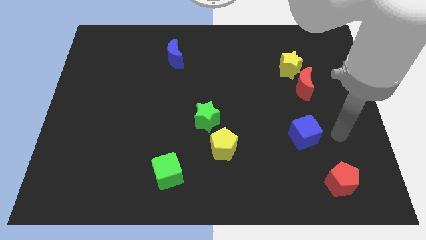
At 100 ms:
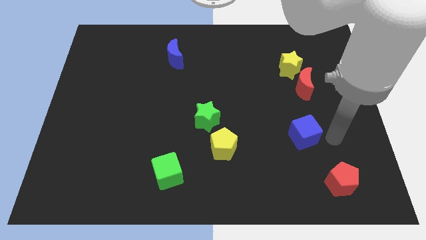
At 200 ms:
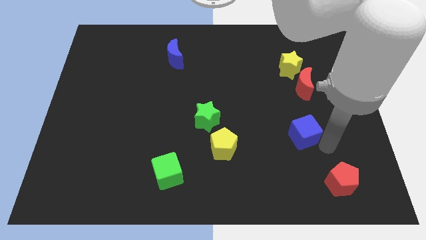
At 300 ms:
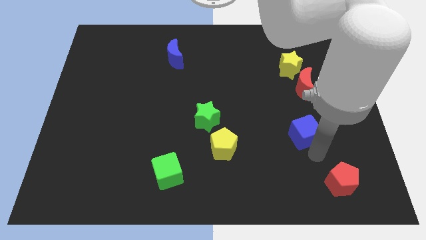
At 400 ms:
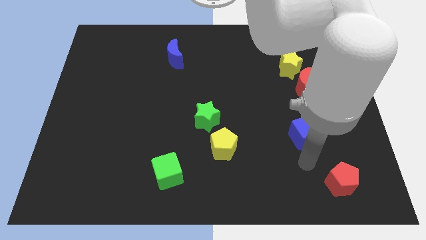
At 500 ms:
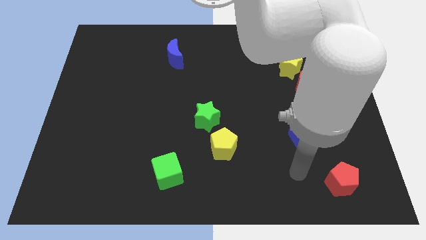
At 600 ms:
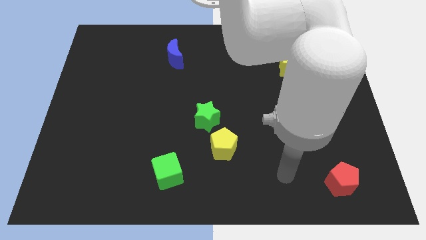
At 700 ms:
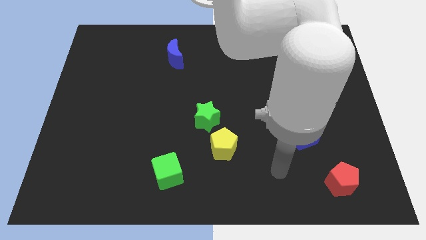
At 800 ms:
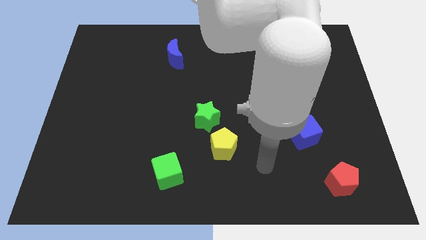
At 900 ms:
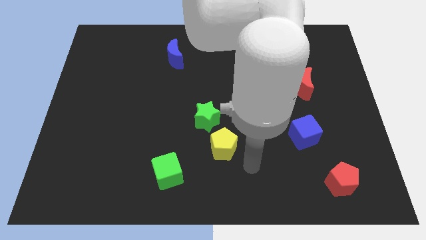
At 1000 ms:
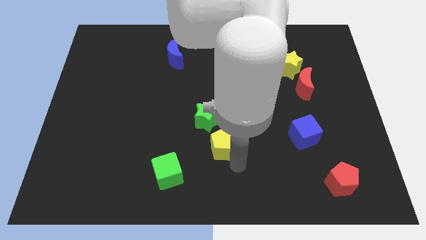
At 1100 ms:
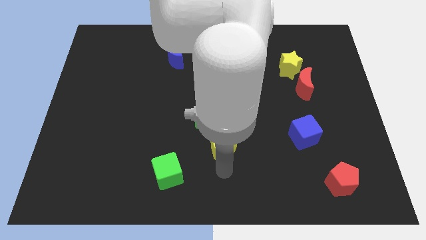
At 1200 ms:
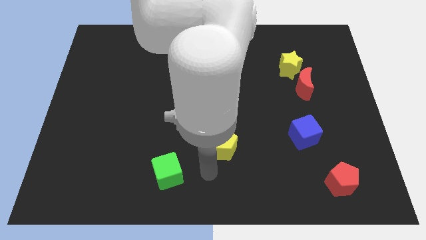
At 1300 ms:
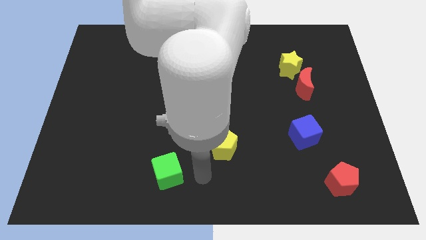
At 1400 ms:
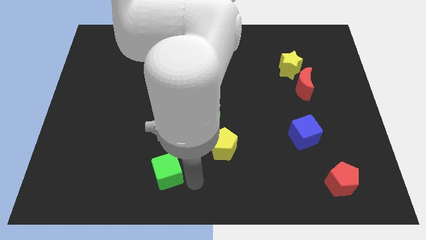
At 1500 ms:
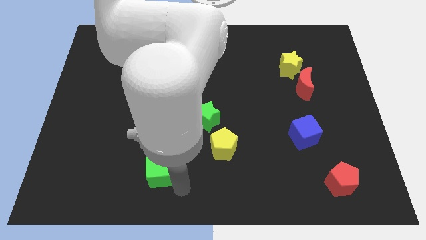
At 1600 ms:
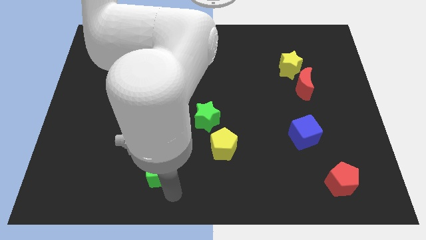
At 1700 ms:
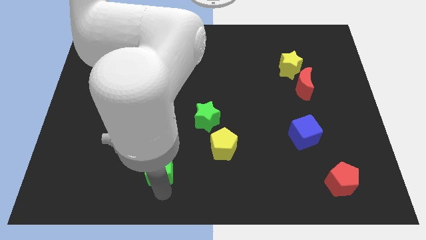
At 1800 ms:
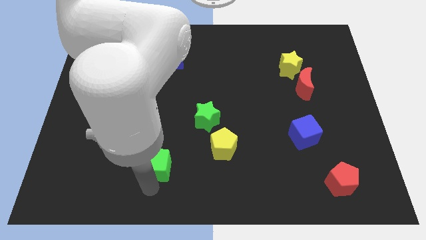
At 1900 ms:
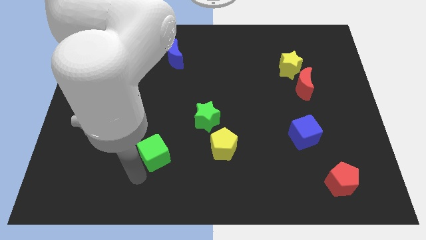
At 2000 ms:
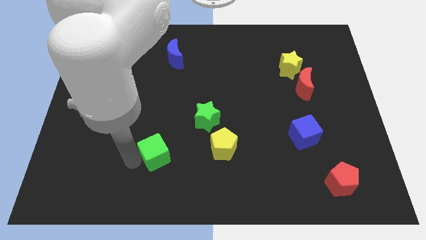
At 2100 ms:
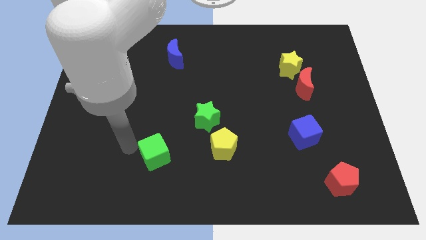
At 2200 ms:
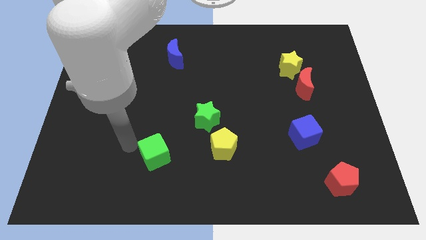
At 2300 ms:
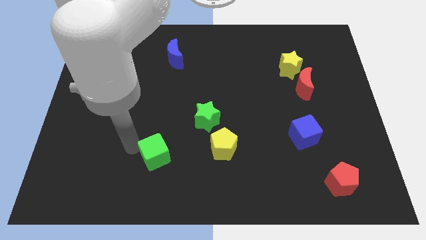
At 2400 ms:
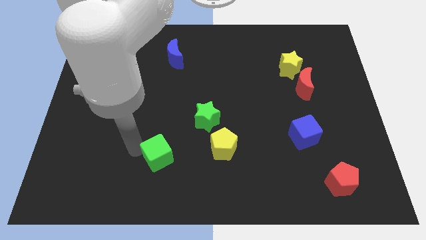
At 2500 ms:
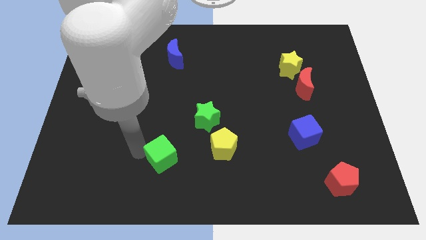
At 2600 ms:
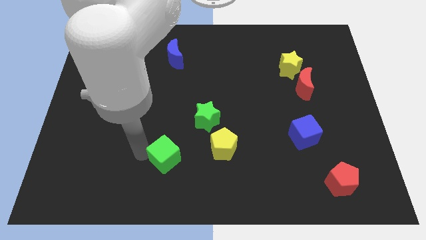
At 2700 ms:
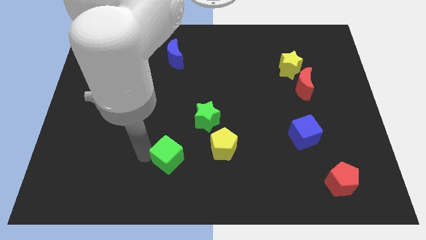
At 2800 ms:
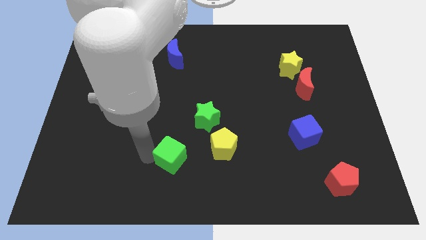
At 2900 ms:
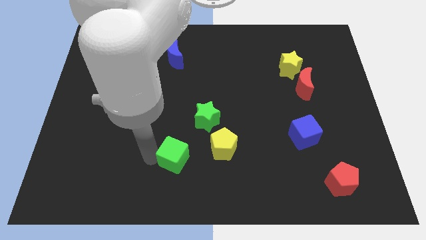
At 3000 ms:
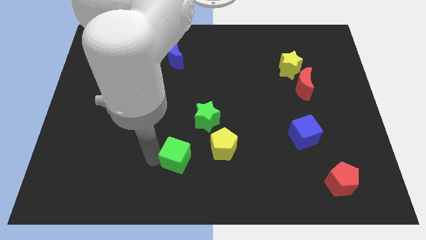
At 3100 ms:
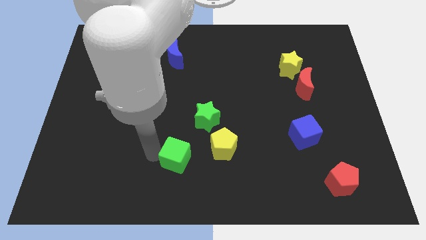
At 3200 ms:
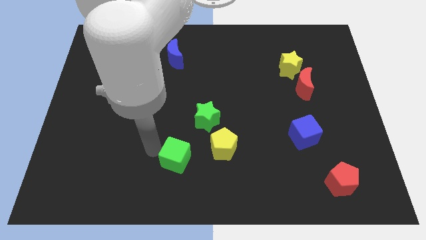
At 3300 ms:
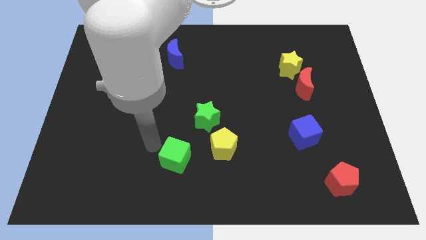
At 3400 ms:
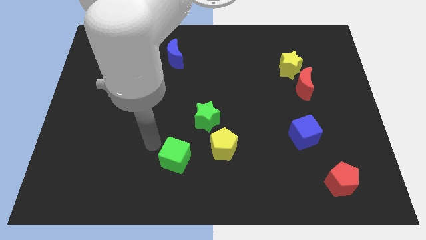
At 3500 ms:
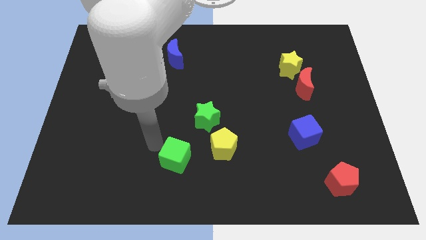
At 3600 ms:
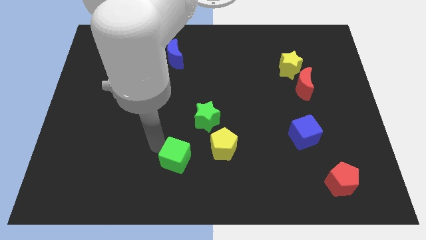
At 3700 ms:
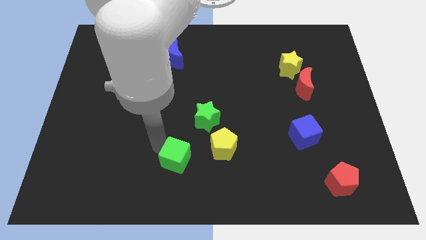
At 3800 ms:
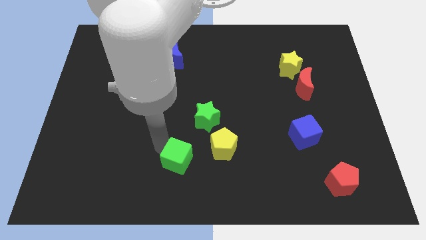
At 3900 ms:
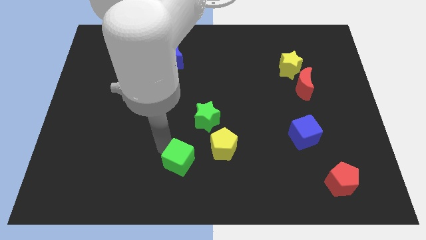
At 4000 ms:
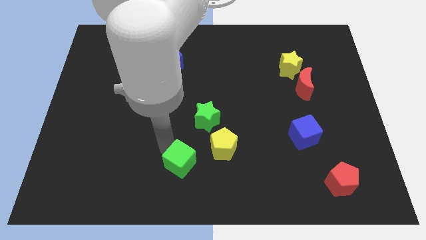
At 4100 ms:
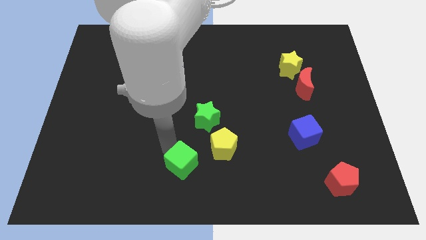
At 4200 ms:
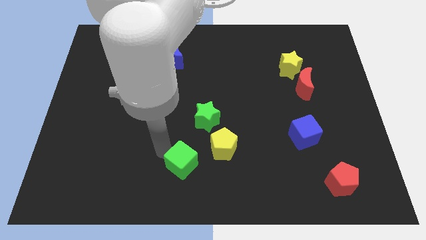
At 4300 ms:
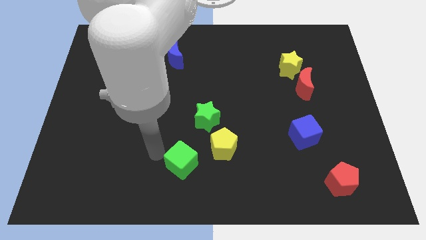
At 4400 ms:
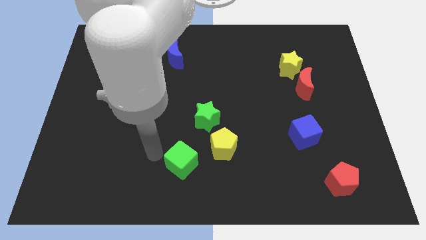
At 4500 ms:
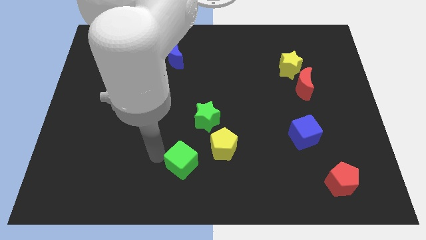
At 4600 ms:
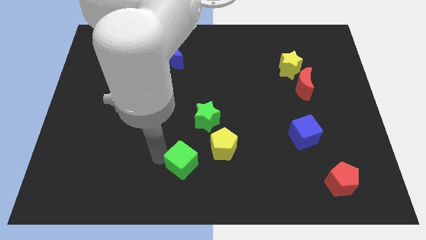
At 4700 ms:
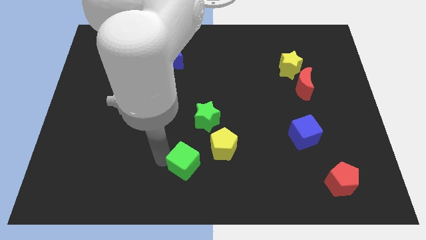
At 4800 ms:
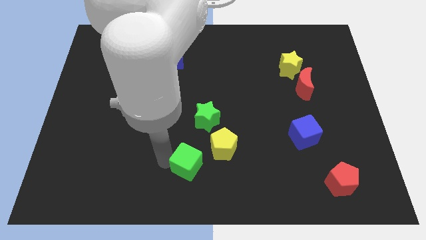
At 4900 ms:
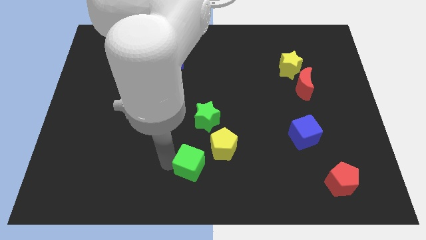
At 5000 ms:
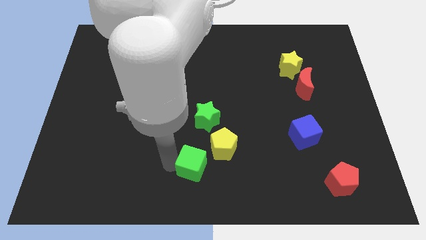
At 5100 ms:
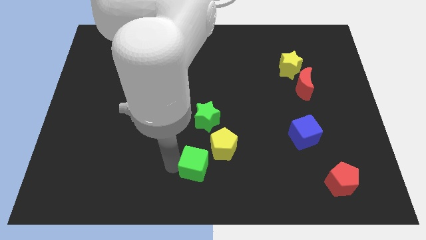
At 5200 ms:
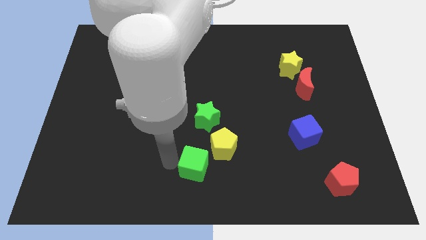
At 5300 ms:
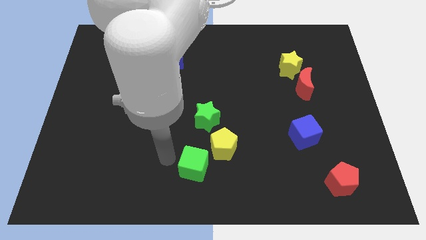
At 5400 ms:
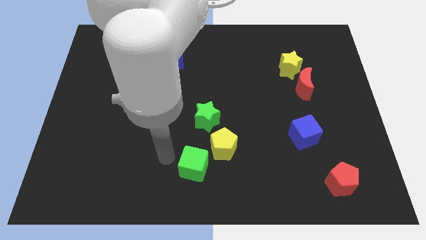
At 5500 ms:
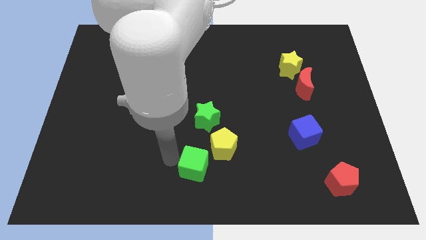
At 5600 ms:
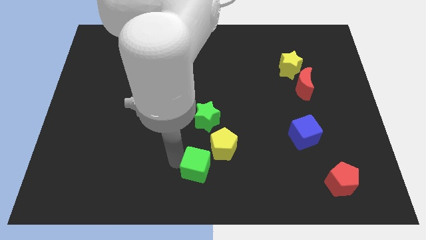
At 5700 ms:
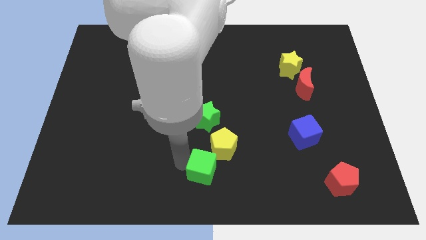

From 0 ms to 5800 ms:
push the green cube a little bit right

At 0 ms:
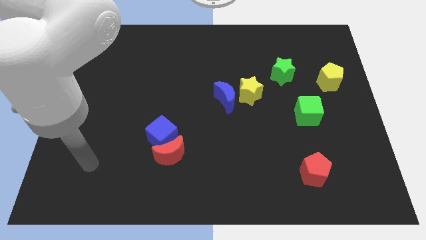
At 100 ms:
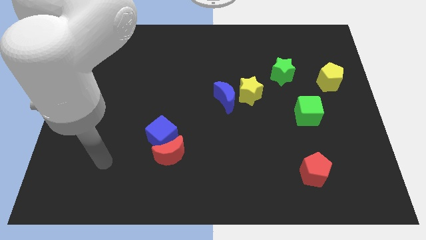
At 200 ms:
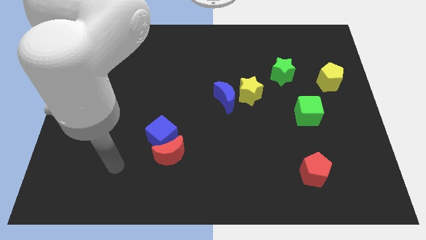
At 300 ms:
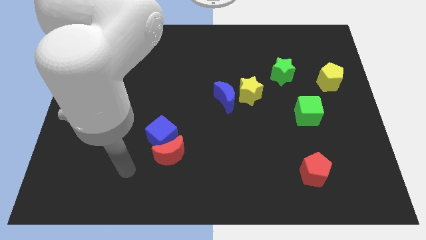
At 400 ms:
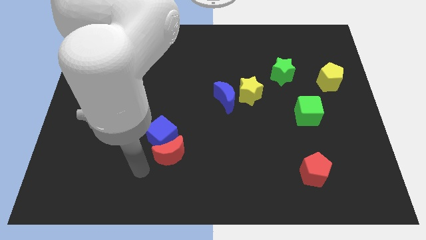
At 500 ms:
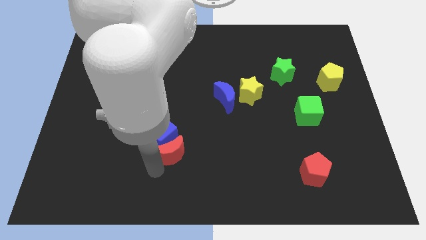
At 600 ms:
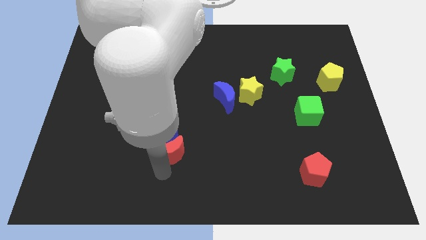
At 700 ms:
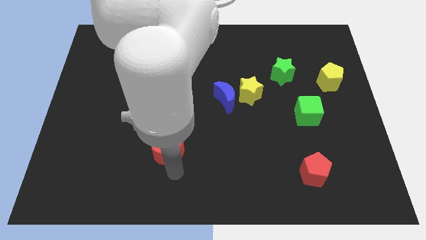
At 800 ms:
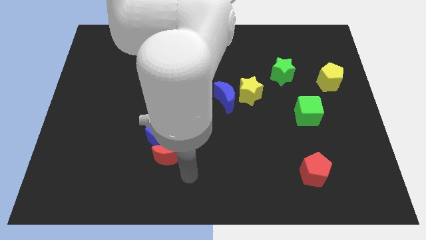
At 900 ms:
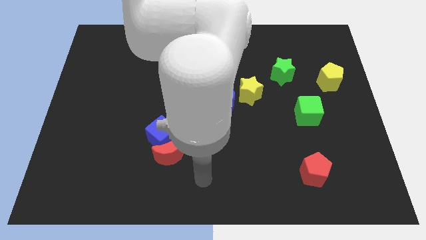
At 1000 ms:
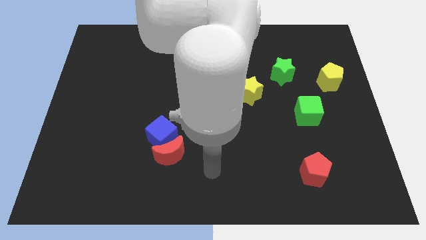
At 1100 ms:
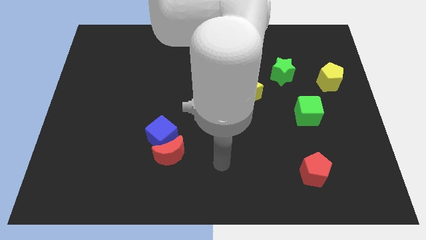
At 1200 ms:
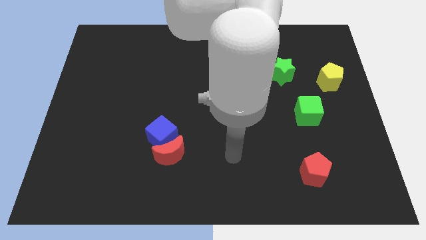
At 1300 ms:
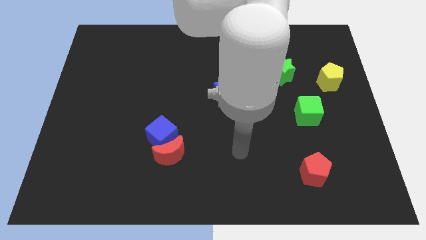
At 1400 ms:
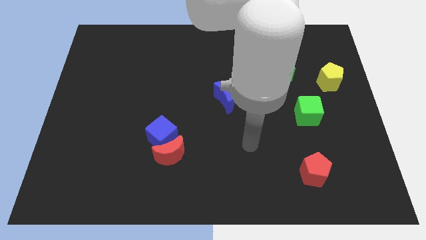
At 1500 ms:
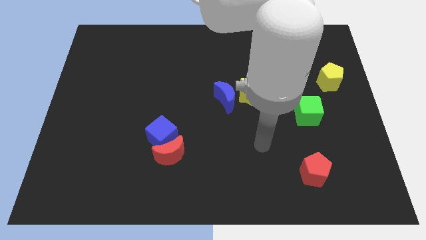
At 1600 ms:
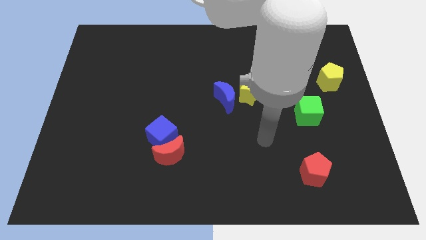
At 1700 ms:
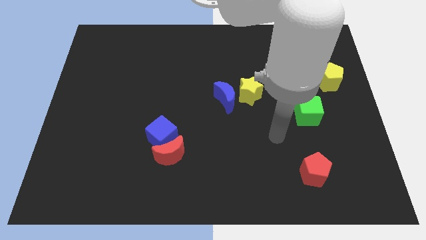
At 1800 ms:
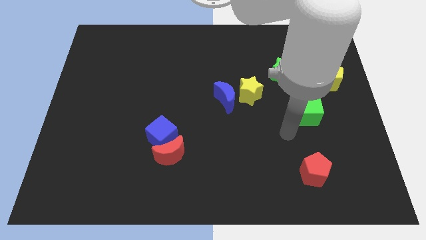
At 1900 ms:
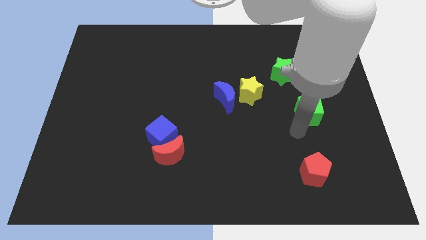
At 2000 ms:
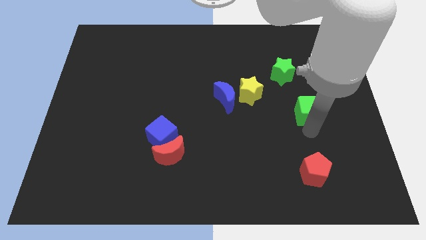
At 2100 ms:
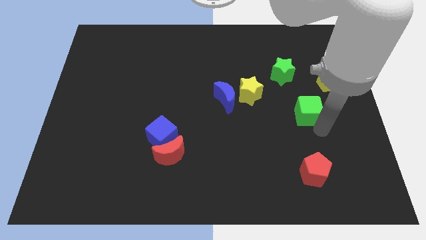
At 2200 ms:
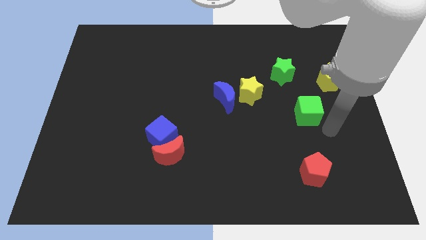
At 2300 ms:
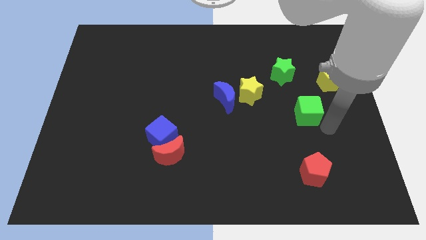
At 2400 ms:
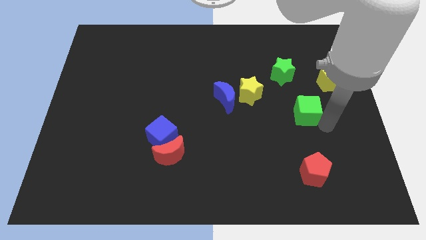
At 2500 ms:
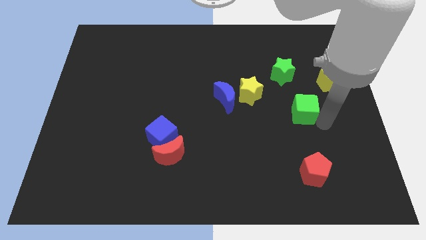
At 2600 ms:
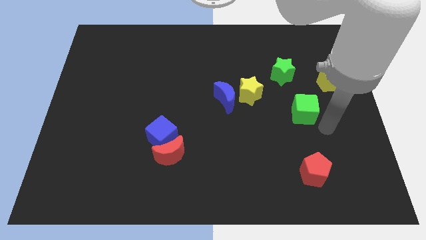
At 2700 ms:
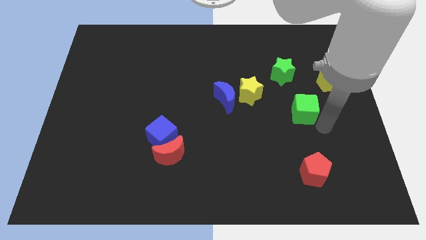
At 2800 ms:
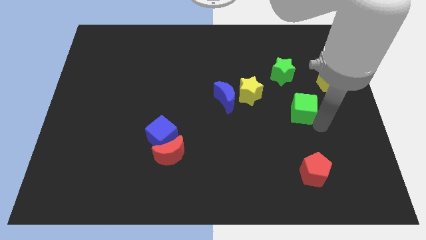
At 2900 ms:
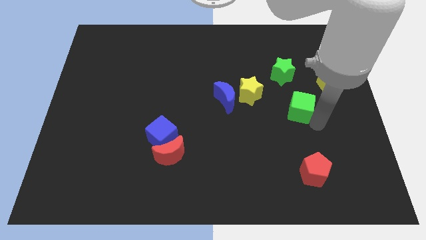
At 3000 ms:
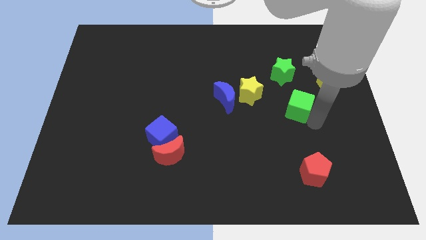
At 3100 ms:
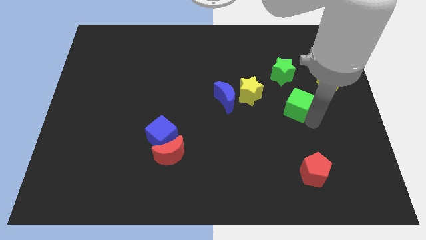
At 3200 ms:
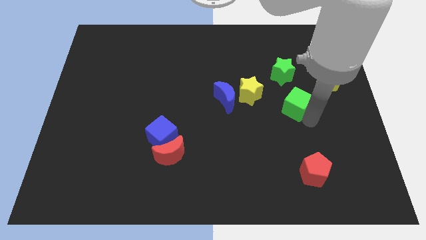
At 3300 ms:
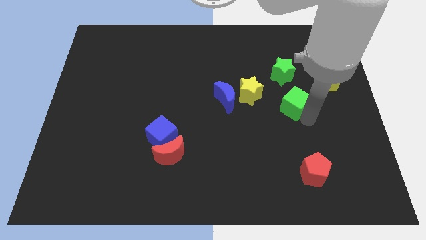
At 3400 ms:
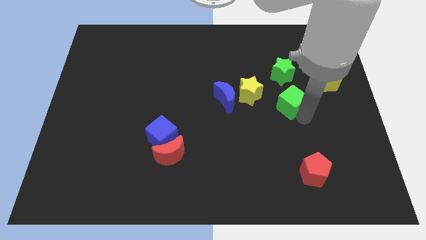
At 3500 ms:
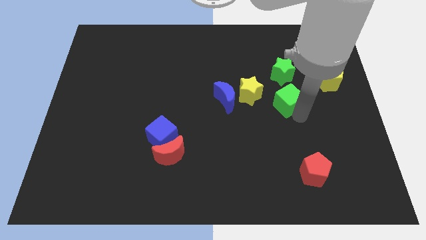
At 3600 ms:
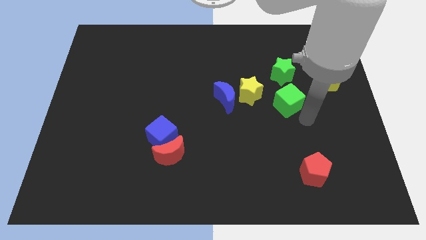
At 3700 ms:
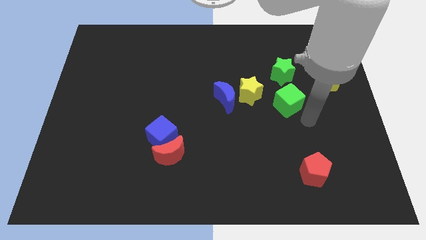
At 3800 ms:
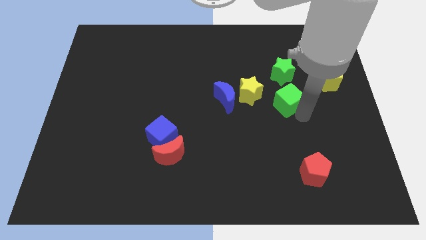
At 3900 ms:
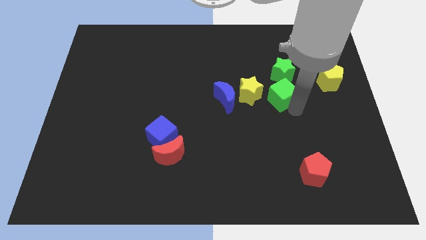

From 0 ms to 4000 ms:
slightly push the green cube upwards and then left
